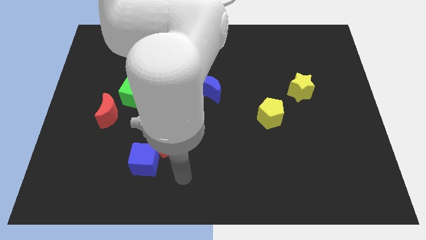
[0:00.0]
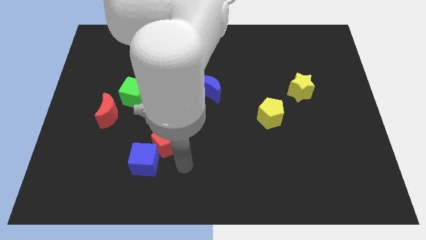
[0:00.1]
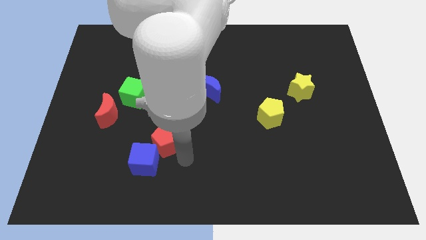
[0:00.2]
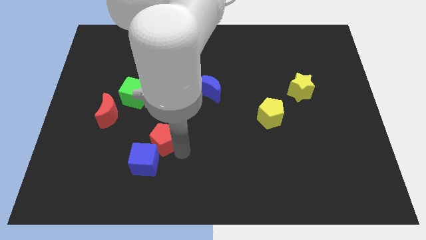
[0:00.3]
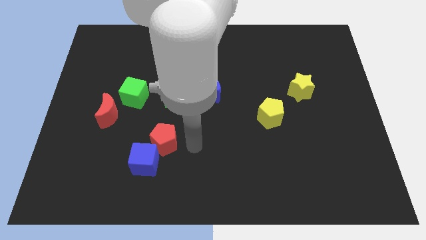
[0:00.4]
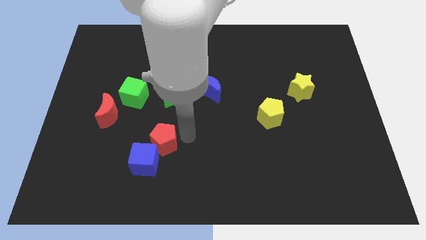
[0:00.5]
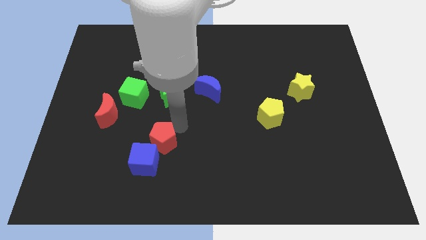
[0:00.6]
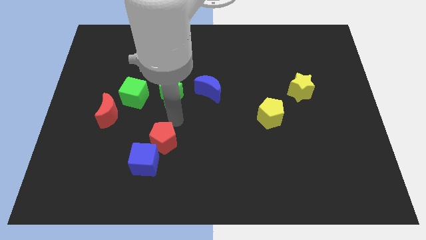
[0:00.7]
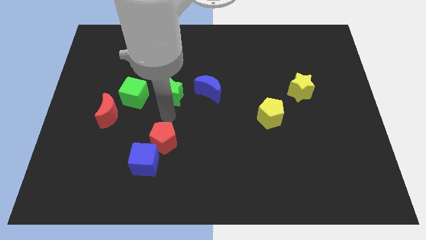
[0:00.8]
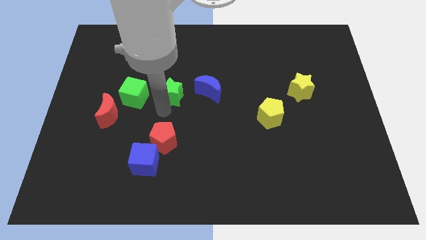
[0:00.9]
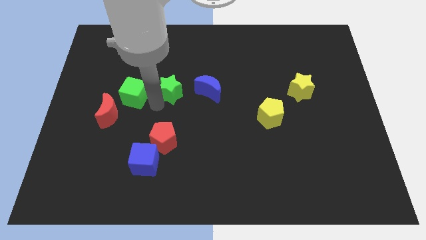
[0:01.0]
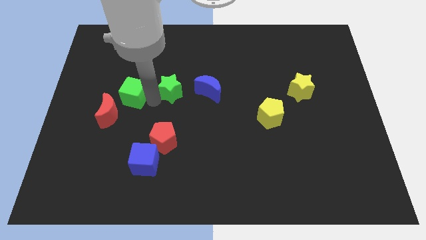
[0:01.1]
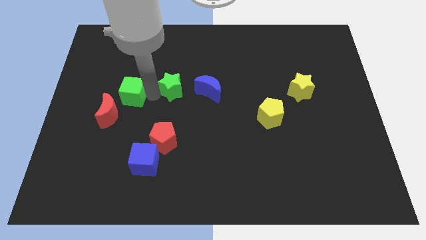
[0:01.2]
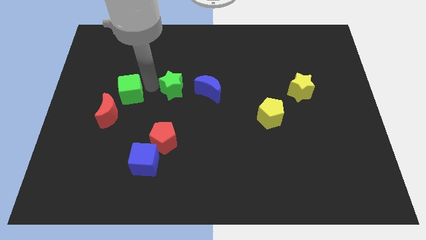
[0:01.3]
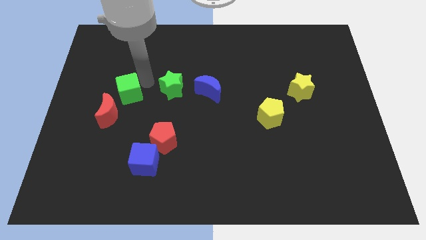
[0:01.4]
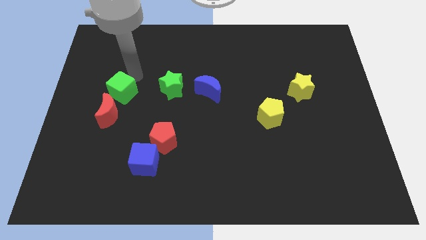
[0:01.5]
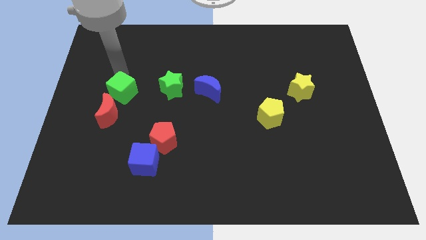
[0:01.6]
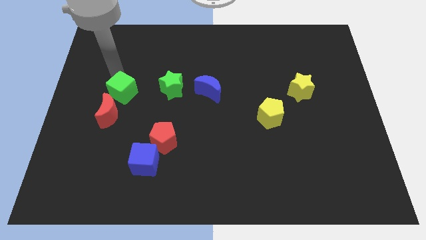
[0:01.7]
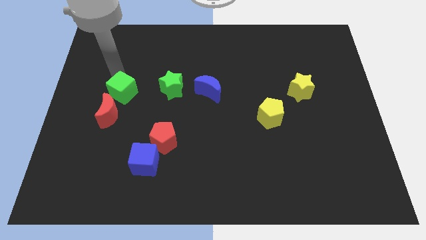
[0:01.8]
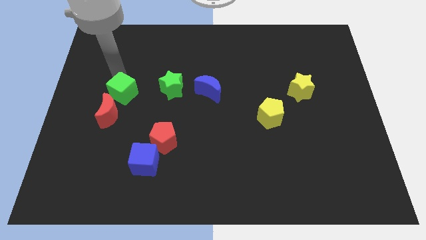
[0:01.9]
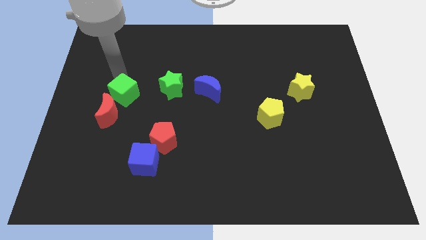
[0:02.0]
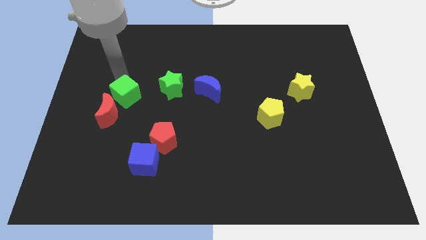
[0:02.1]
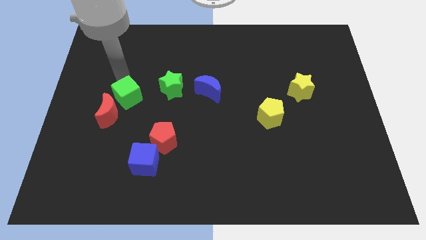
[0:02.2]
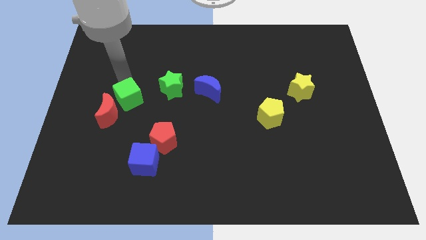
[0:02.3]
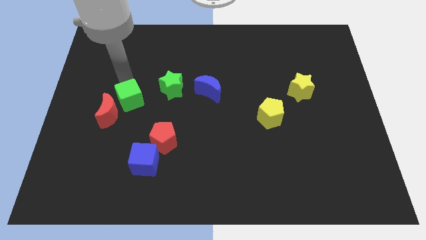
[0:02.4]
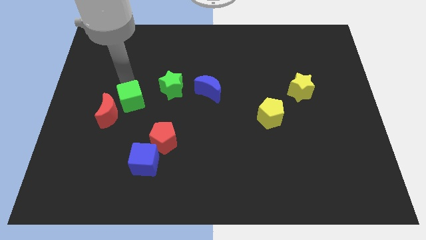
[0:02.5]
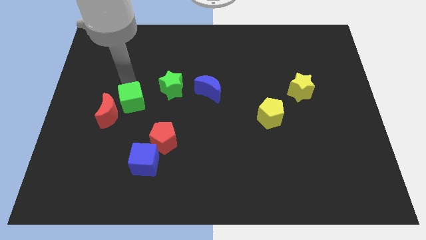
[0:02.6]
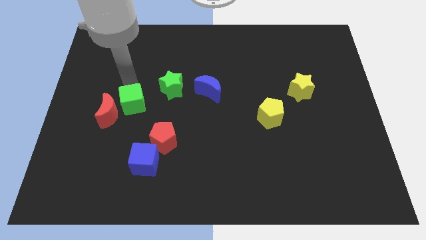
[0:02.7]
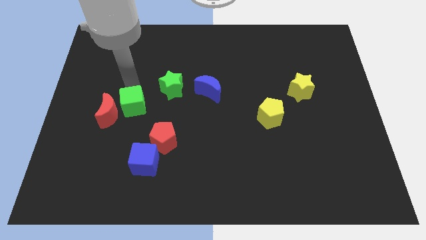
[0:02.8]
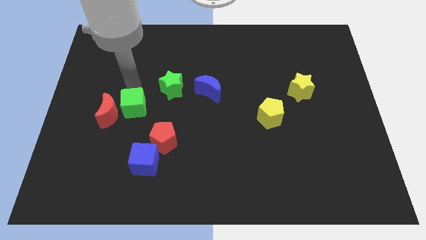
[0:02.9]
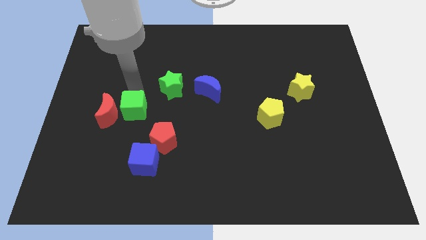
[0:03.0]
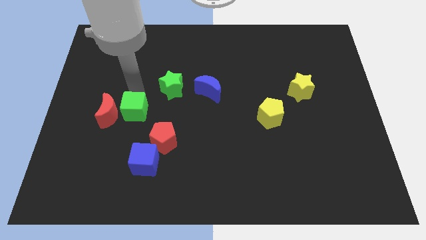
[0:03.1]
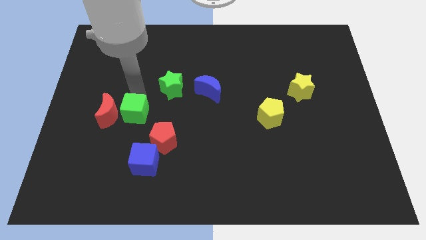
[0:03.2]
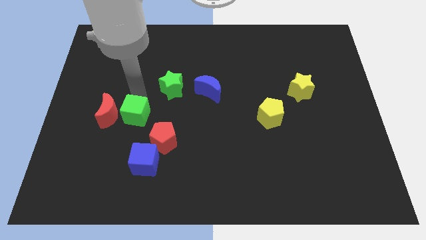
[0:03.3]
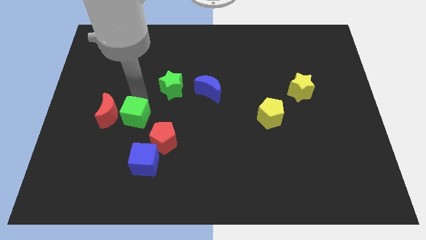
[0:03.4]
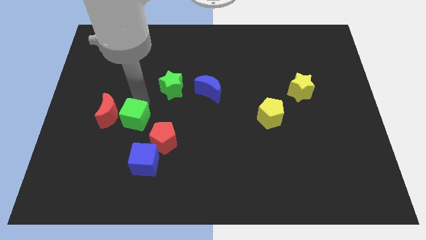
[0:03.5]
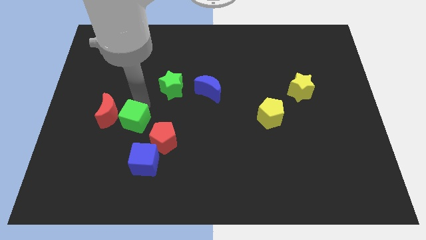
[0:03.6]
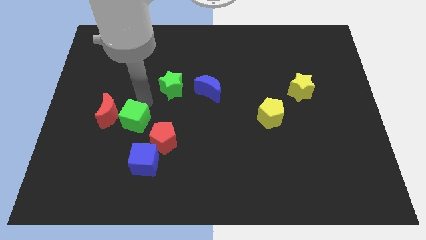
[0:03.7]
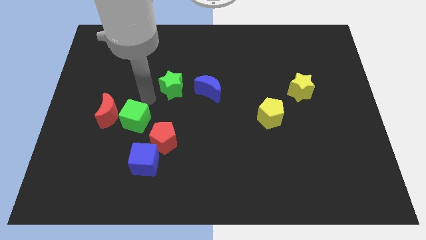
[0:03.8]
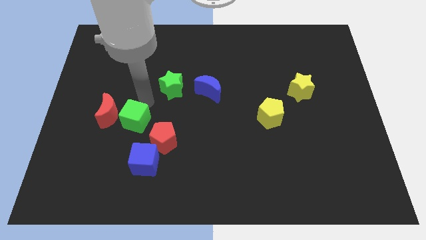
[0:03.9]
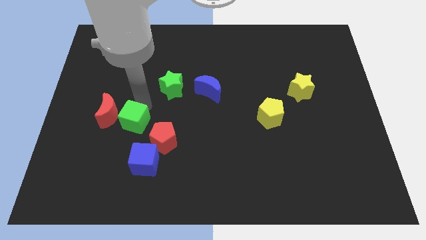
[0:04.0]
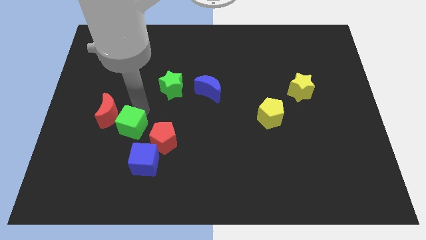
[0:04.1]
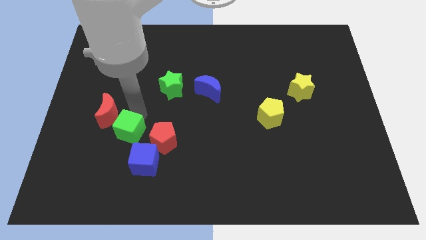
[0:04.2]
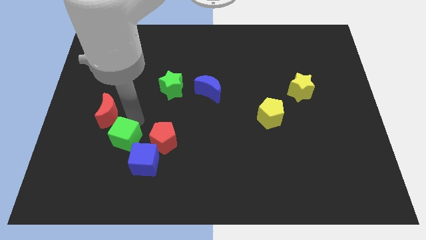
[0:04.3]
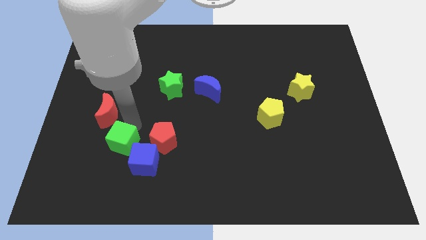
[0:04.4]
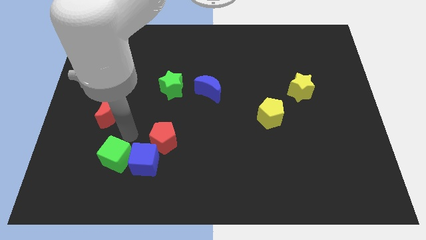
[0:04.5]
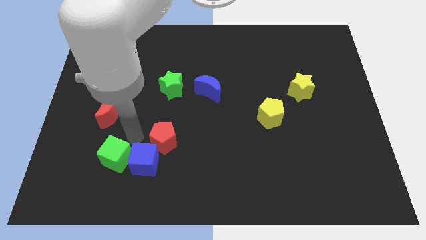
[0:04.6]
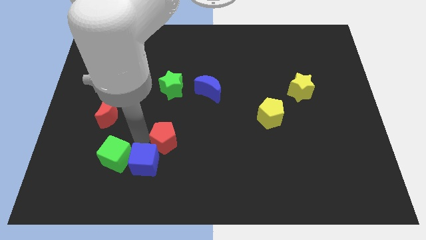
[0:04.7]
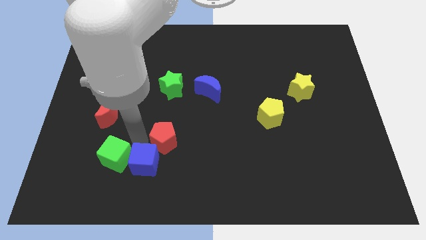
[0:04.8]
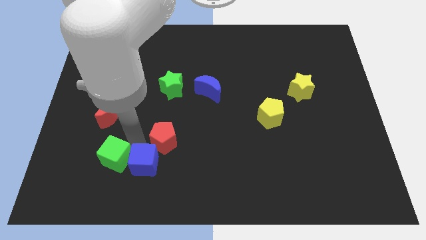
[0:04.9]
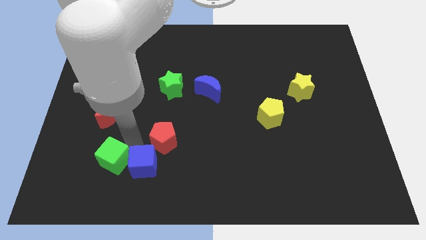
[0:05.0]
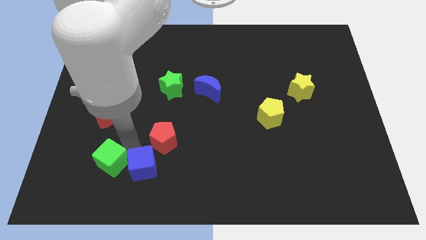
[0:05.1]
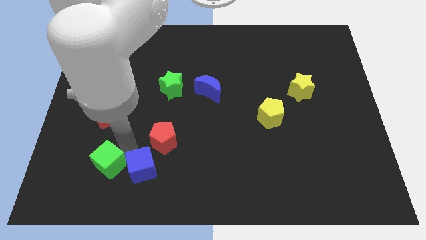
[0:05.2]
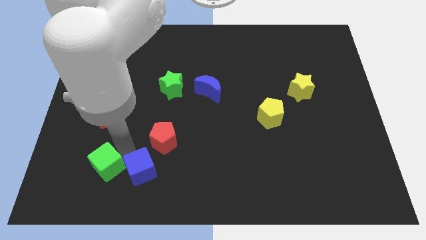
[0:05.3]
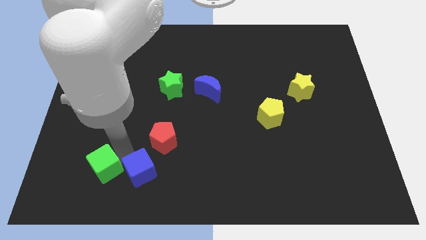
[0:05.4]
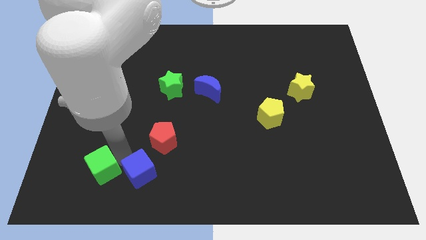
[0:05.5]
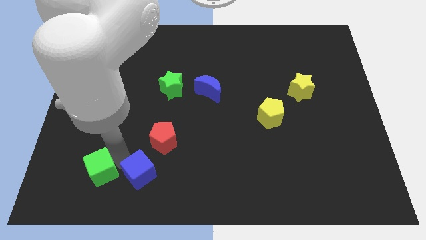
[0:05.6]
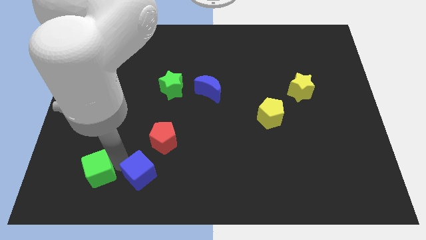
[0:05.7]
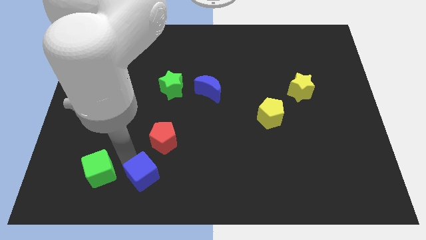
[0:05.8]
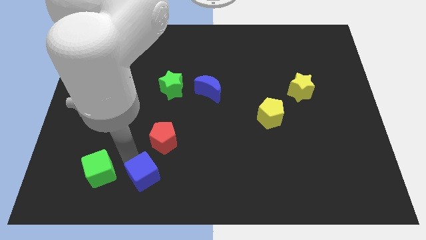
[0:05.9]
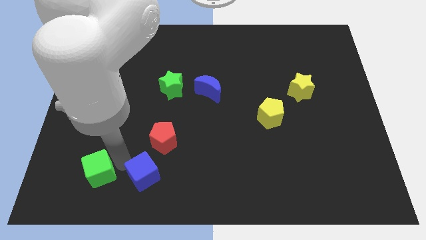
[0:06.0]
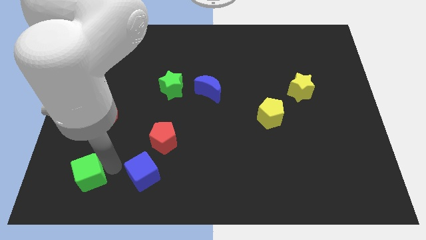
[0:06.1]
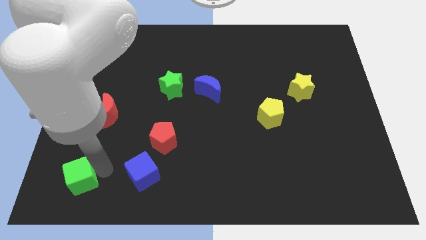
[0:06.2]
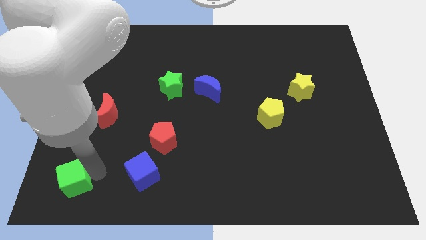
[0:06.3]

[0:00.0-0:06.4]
put the green cube to the bottom left corner
